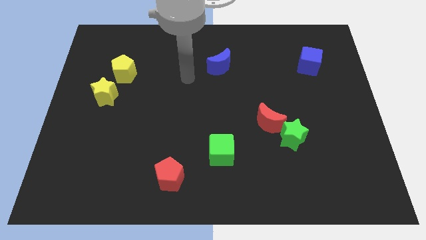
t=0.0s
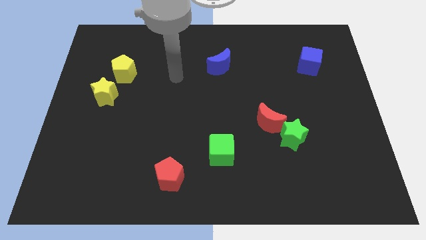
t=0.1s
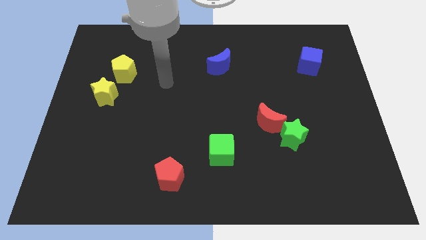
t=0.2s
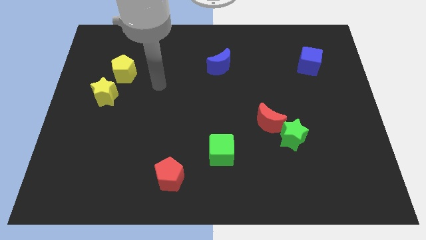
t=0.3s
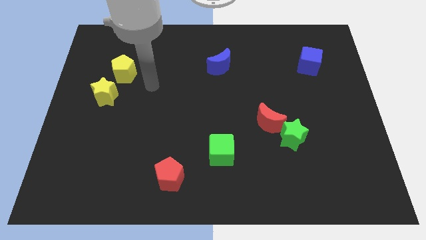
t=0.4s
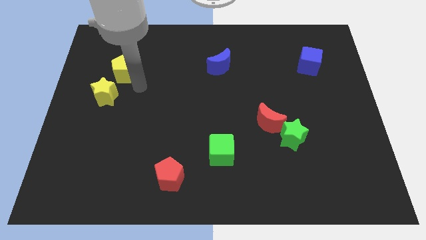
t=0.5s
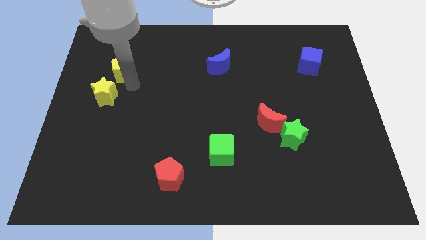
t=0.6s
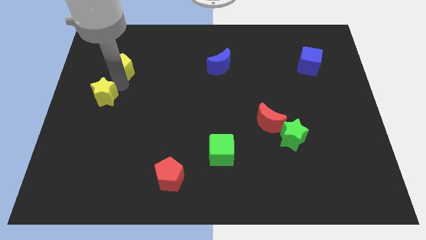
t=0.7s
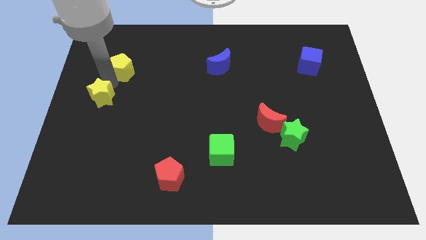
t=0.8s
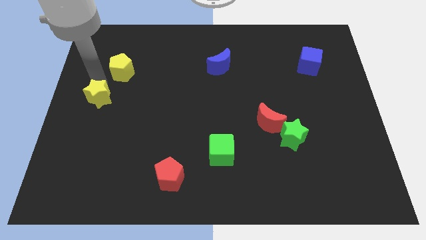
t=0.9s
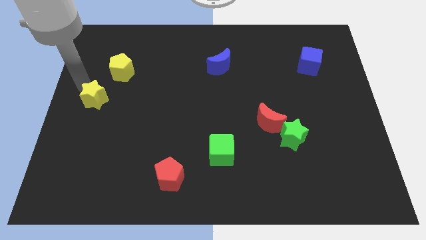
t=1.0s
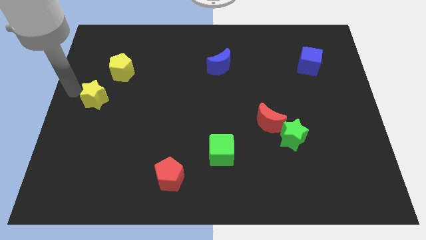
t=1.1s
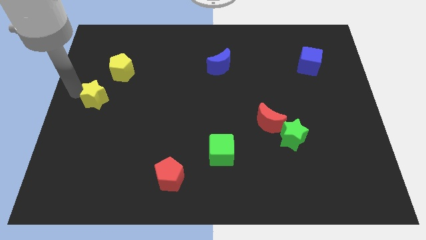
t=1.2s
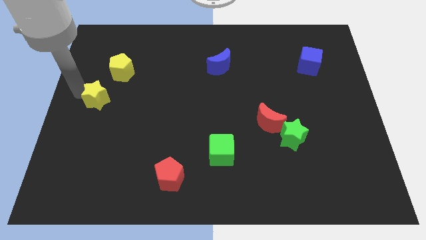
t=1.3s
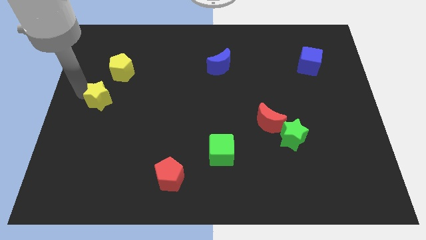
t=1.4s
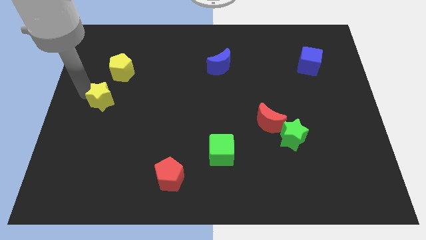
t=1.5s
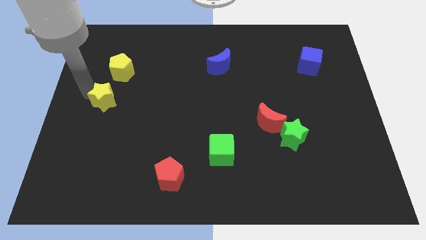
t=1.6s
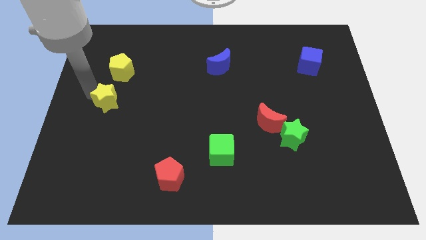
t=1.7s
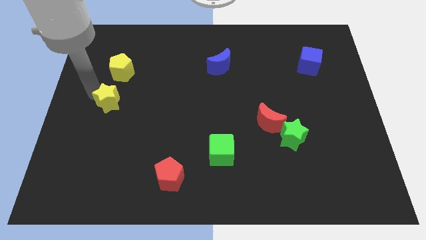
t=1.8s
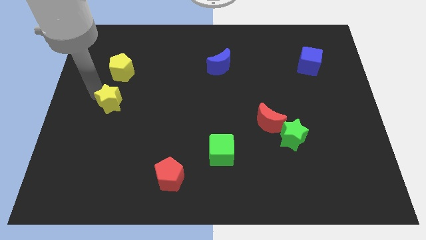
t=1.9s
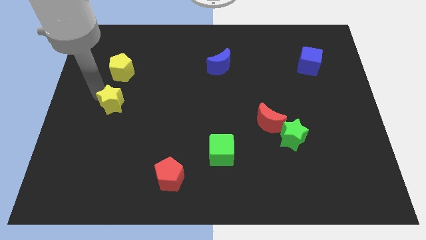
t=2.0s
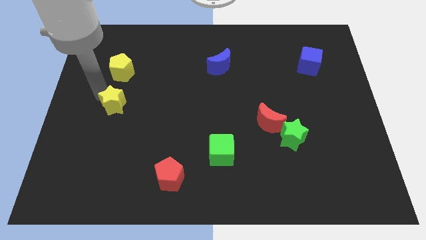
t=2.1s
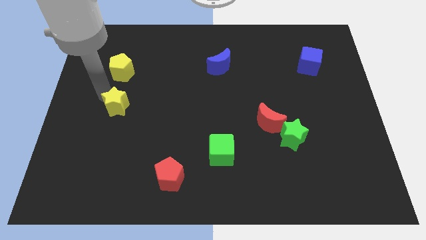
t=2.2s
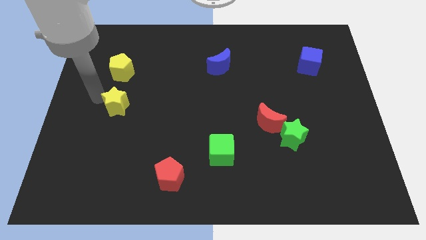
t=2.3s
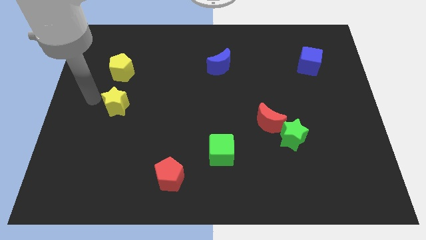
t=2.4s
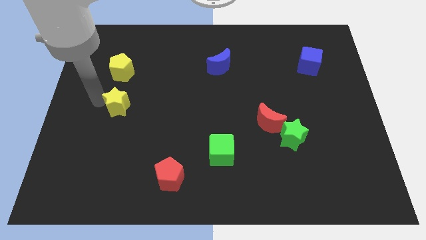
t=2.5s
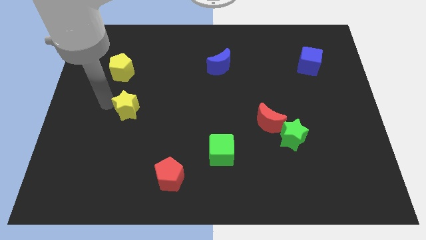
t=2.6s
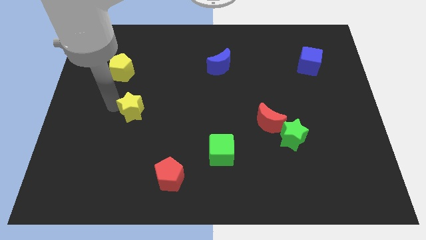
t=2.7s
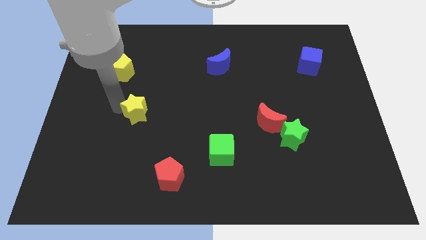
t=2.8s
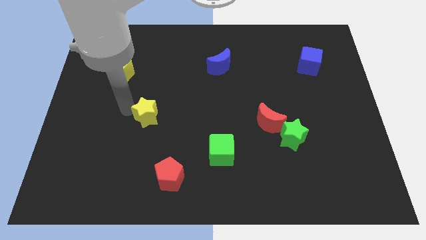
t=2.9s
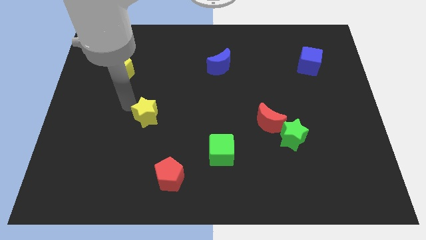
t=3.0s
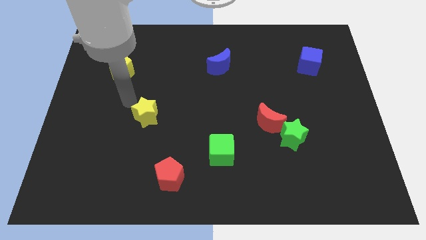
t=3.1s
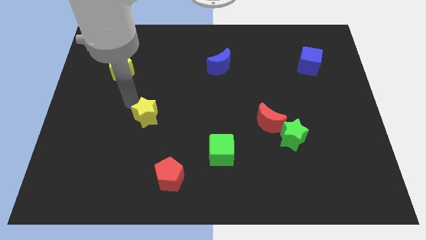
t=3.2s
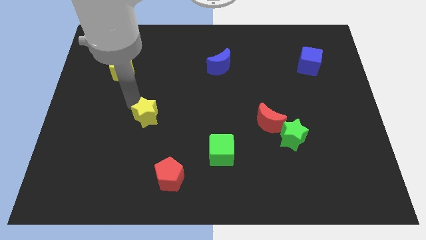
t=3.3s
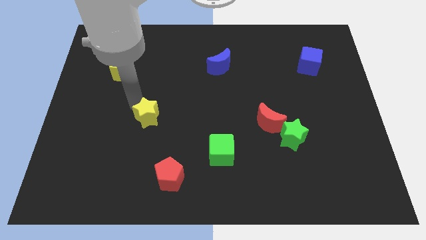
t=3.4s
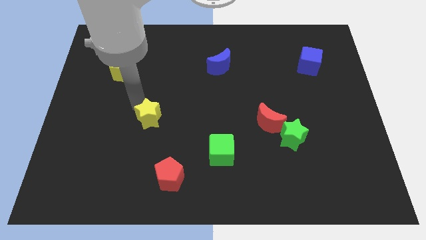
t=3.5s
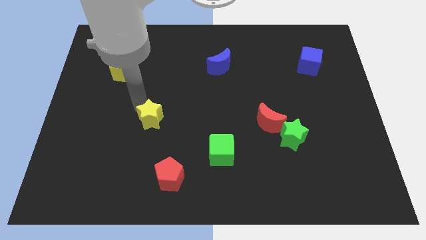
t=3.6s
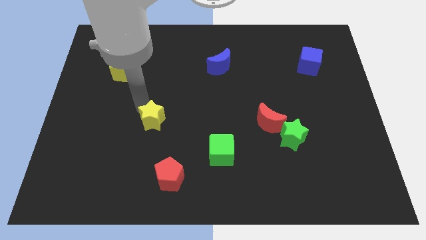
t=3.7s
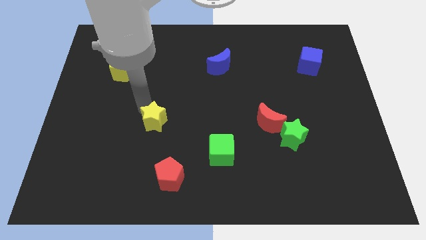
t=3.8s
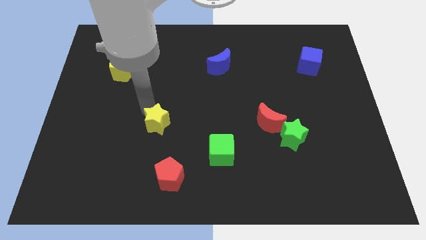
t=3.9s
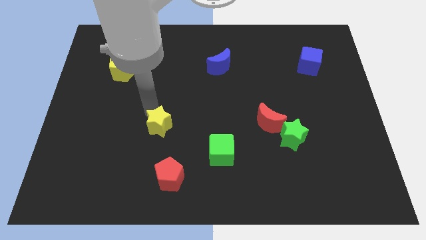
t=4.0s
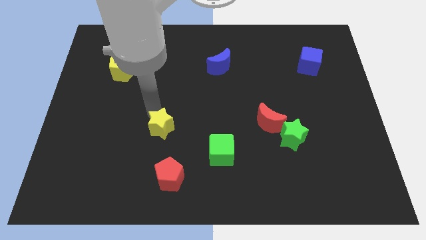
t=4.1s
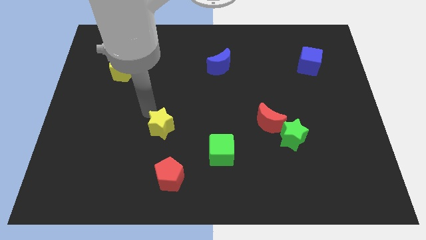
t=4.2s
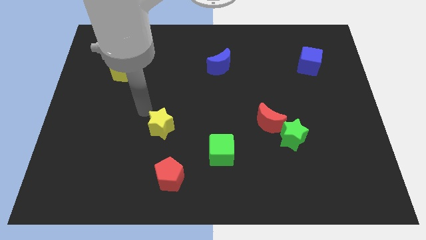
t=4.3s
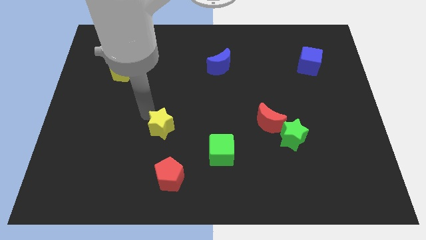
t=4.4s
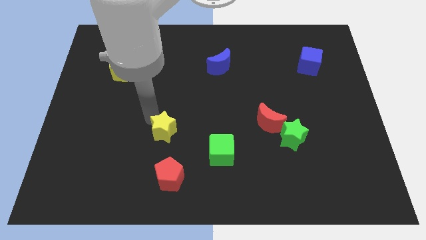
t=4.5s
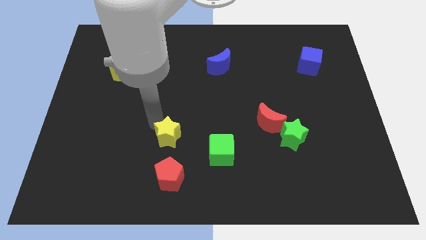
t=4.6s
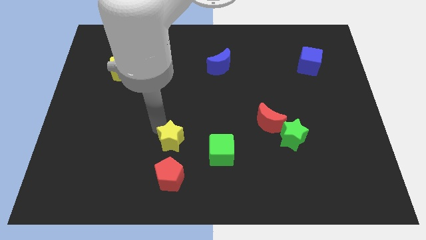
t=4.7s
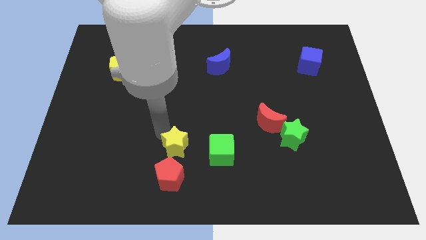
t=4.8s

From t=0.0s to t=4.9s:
slide the yellow star to the top right of the red pentagon

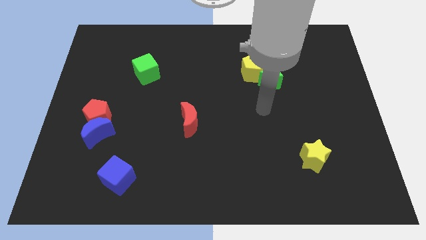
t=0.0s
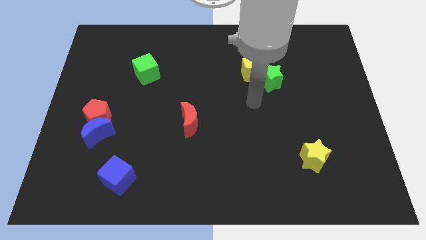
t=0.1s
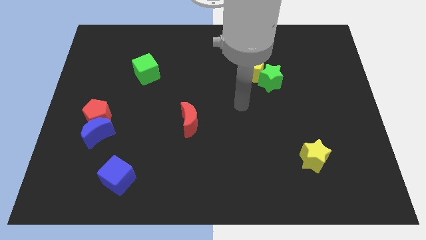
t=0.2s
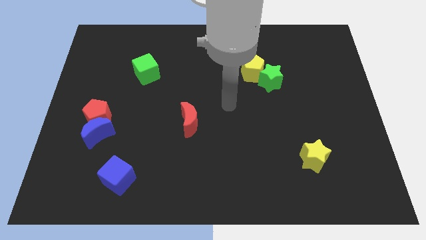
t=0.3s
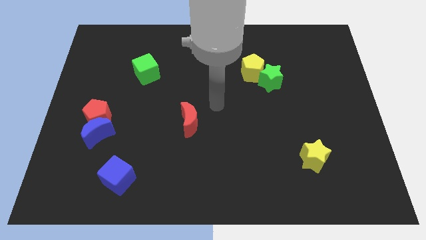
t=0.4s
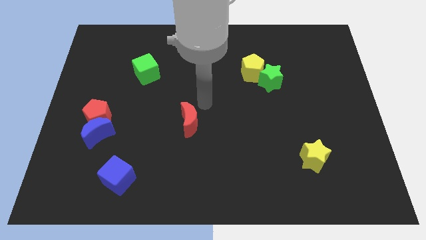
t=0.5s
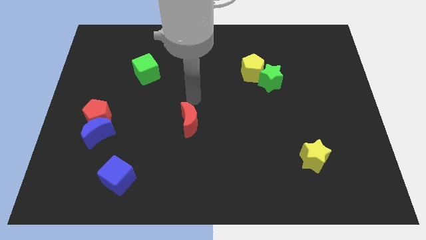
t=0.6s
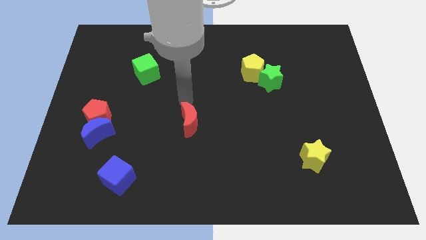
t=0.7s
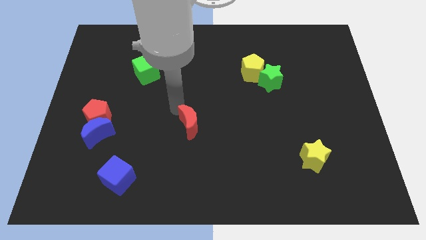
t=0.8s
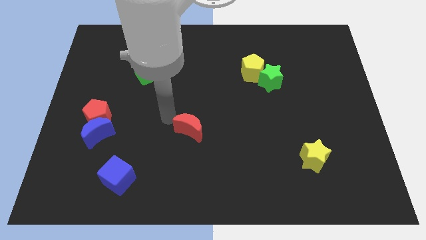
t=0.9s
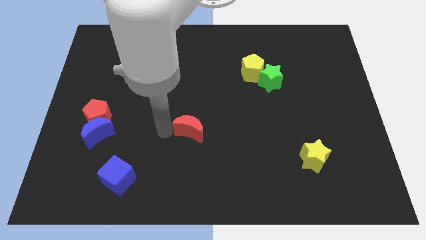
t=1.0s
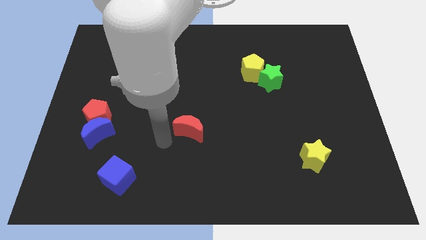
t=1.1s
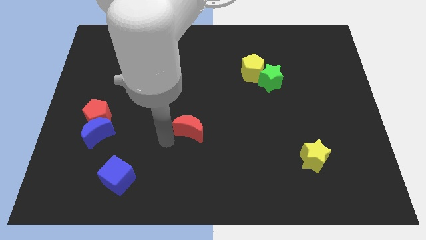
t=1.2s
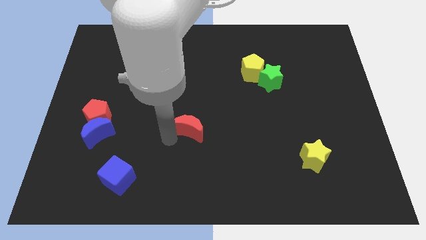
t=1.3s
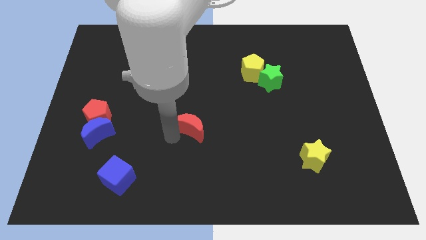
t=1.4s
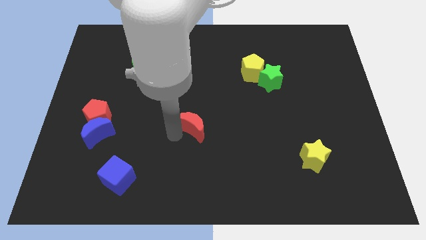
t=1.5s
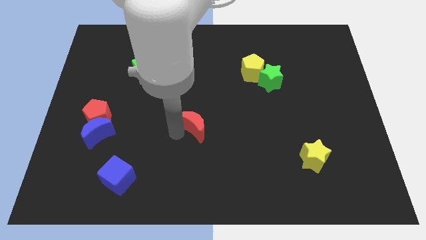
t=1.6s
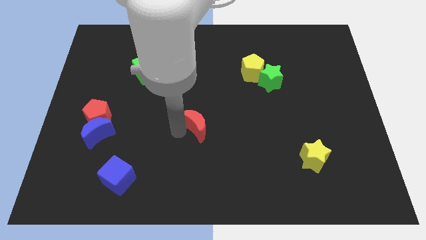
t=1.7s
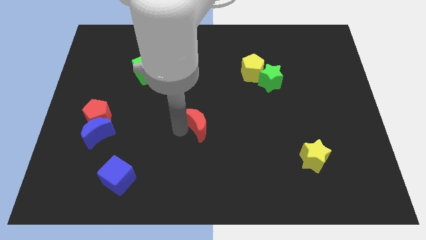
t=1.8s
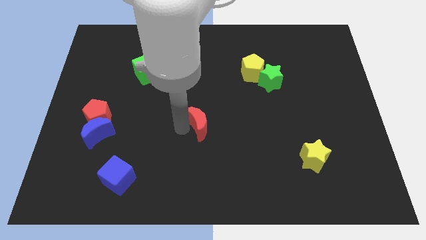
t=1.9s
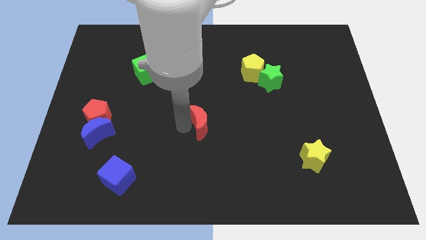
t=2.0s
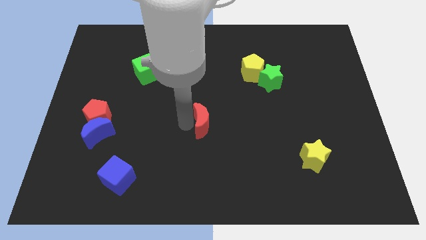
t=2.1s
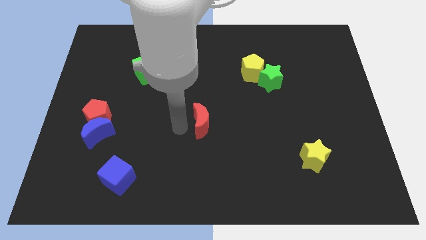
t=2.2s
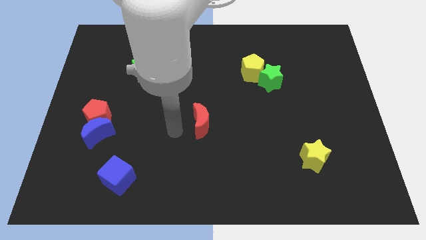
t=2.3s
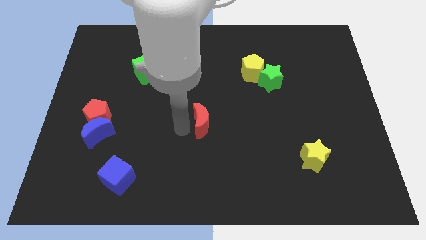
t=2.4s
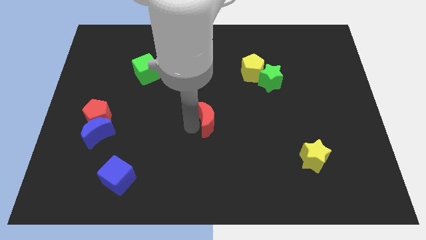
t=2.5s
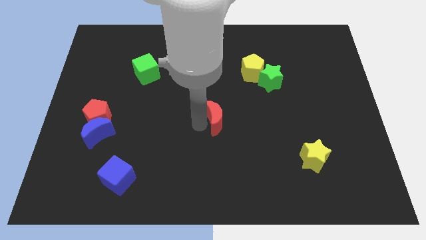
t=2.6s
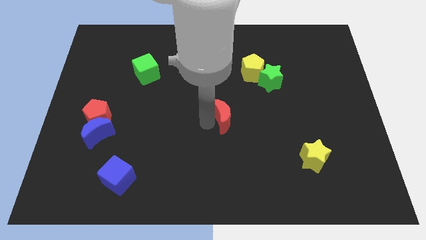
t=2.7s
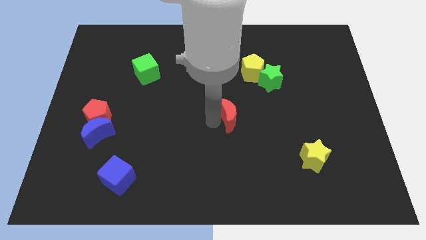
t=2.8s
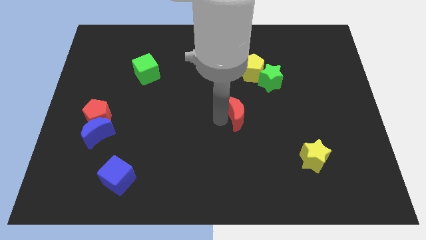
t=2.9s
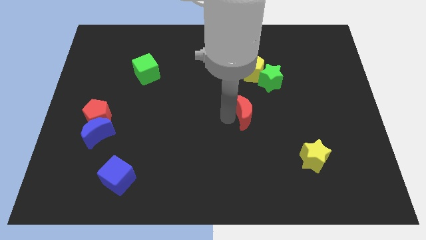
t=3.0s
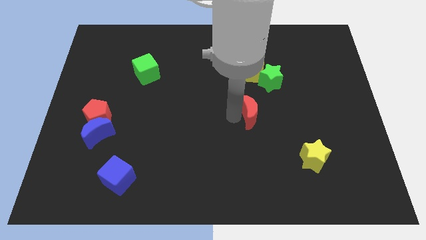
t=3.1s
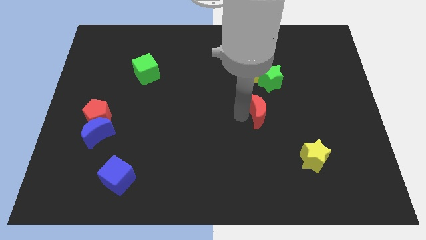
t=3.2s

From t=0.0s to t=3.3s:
push the red moon to the bottom side of the green star
